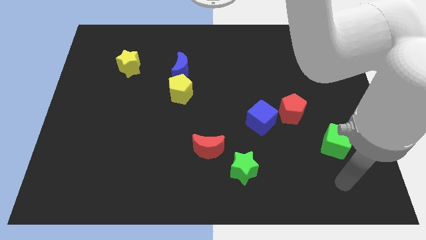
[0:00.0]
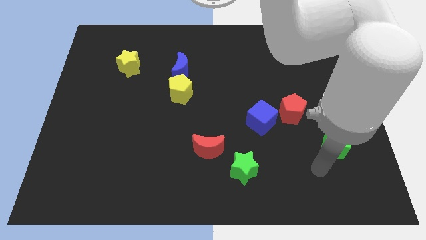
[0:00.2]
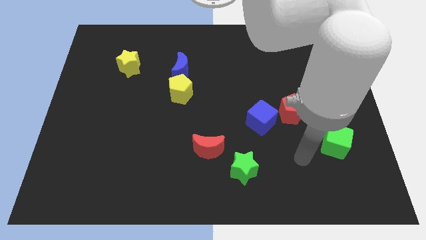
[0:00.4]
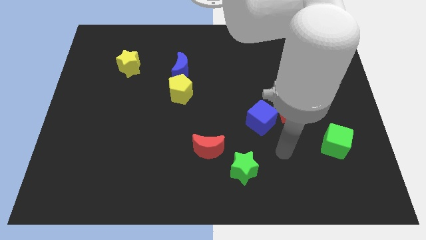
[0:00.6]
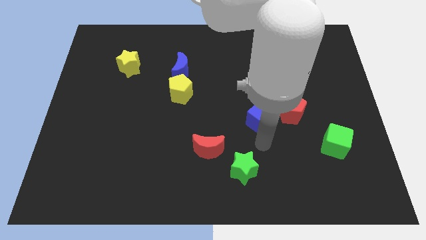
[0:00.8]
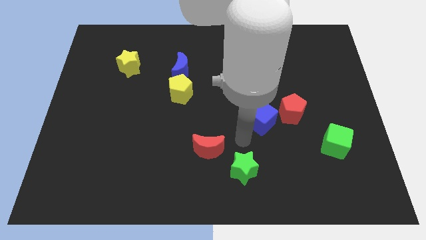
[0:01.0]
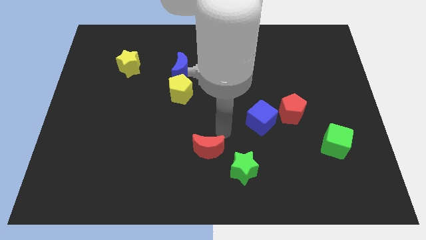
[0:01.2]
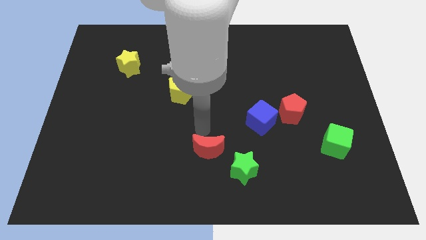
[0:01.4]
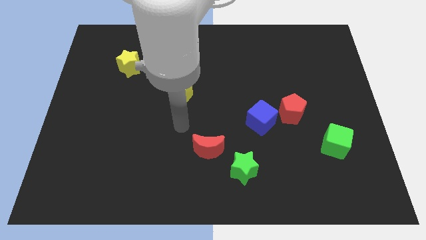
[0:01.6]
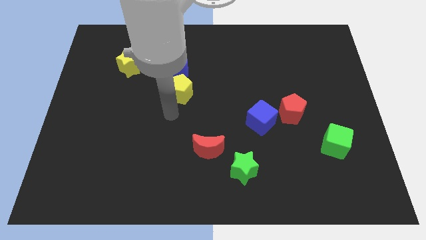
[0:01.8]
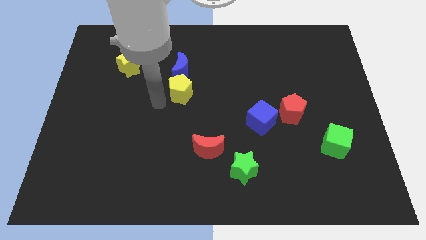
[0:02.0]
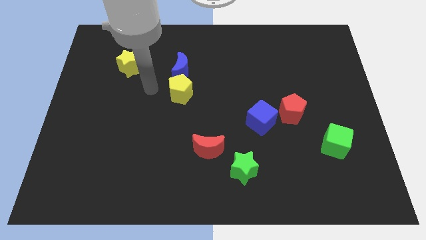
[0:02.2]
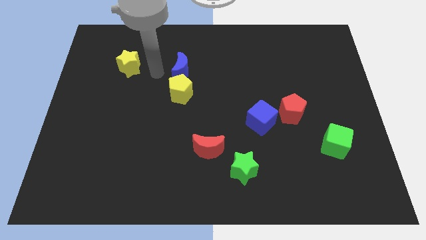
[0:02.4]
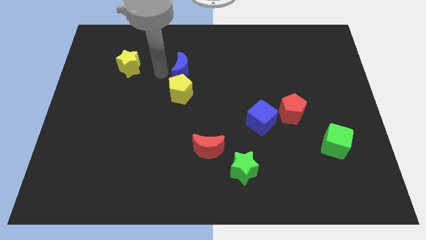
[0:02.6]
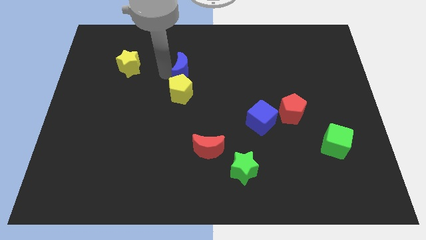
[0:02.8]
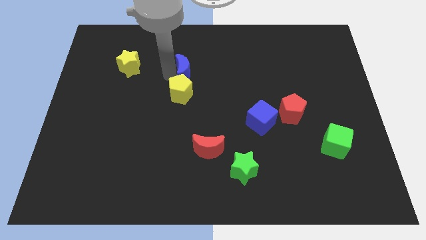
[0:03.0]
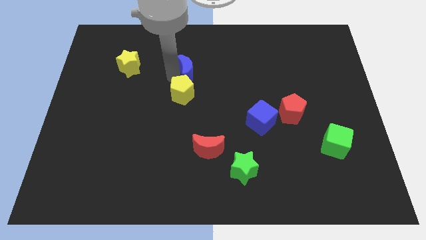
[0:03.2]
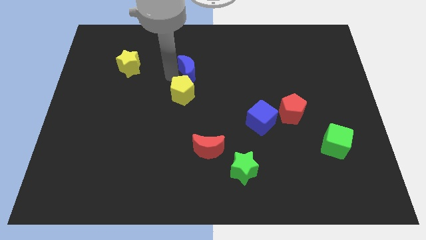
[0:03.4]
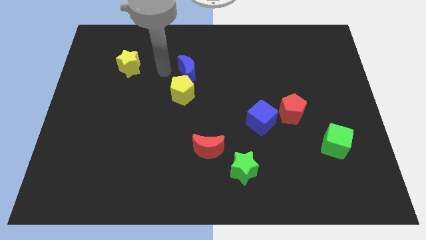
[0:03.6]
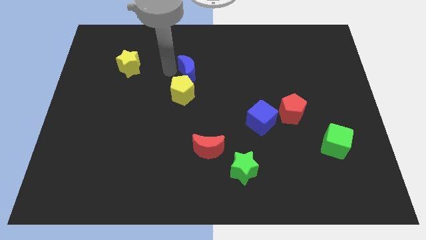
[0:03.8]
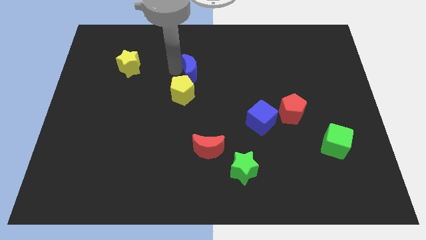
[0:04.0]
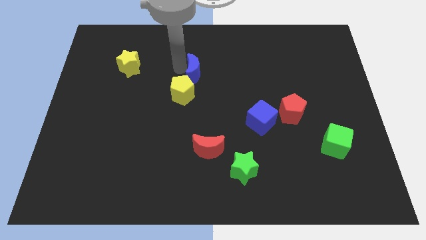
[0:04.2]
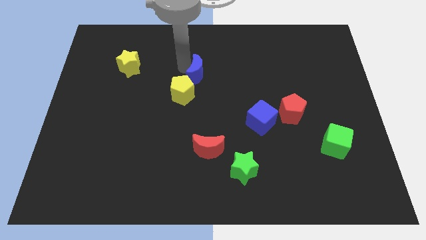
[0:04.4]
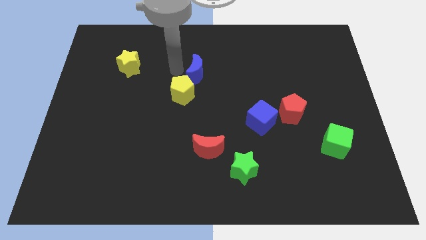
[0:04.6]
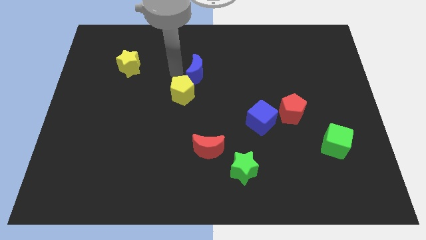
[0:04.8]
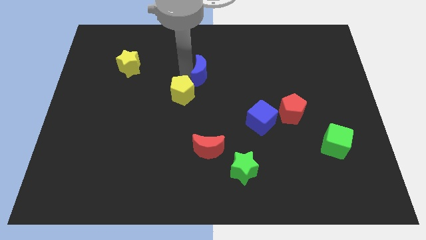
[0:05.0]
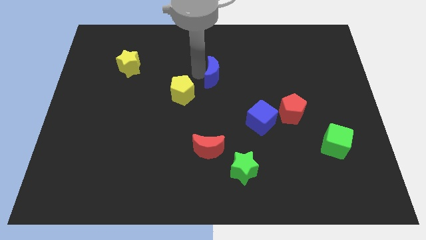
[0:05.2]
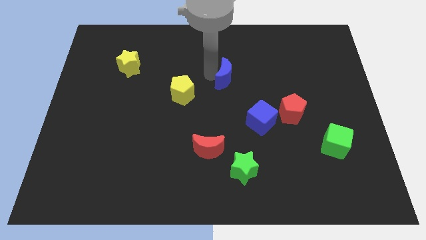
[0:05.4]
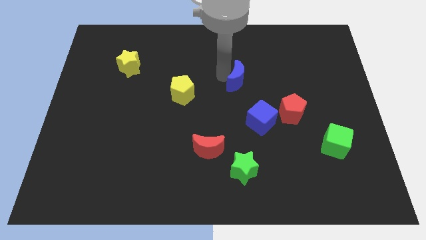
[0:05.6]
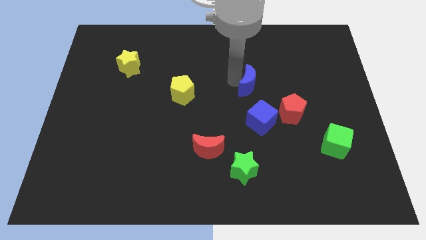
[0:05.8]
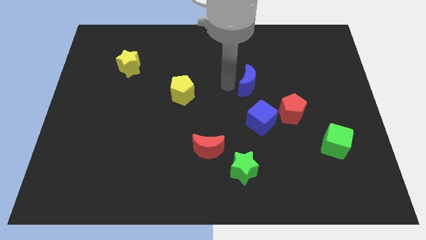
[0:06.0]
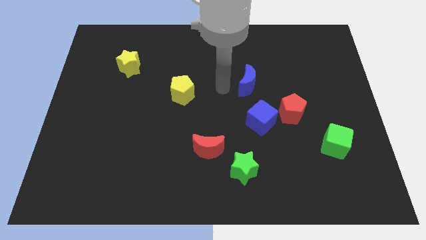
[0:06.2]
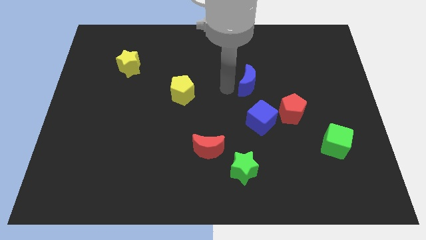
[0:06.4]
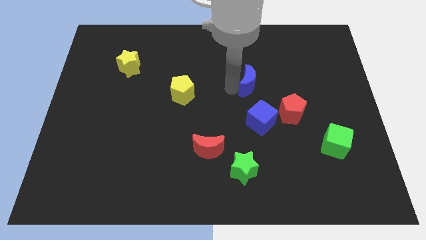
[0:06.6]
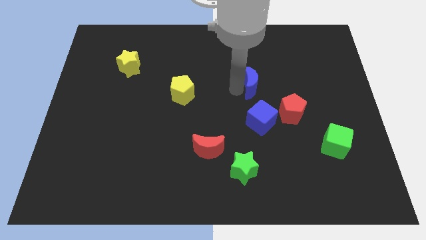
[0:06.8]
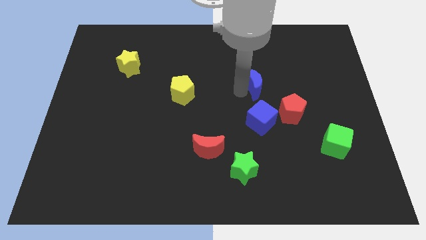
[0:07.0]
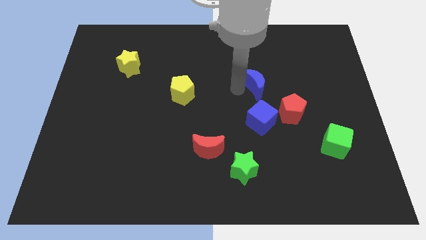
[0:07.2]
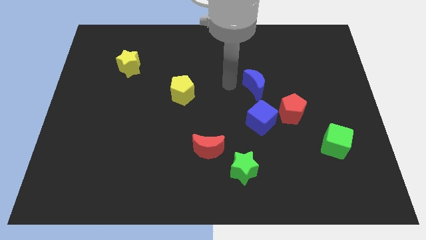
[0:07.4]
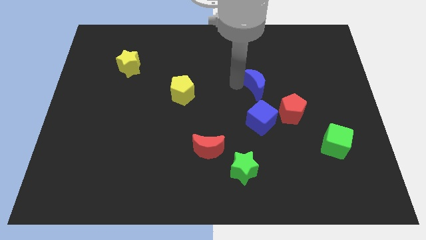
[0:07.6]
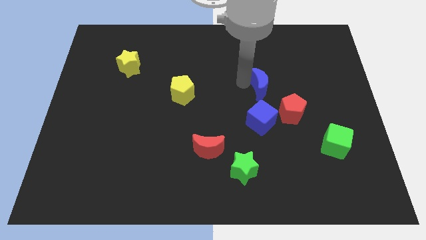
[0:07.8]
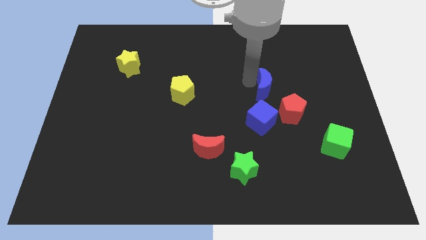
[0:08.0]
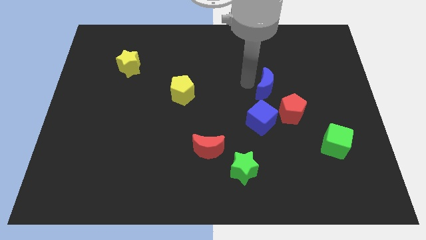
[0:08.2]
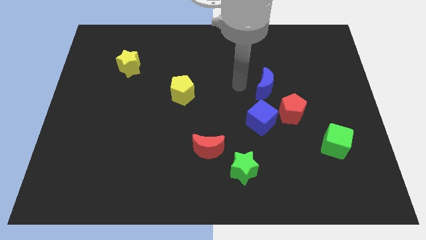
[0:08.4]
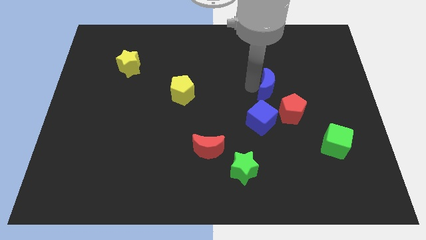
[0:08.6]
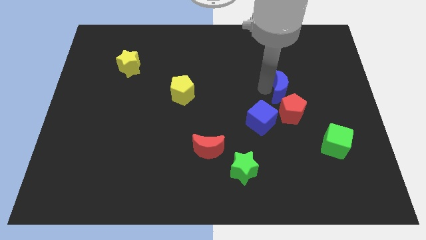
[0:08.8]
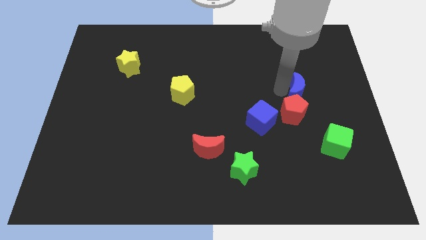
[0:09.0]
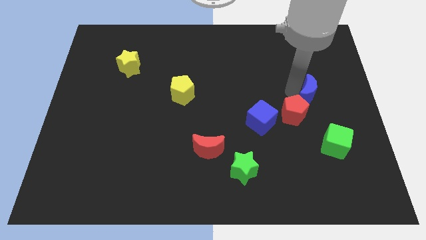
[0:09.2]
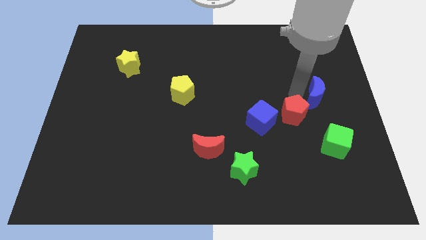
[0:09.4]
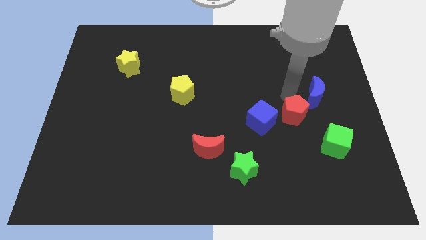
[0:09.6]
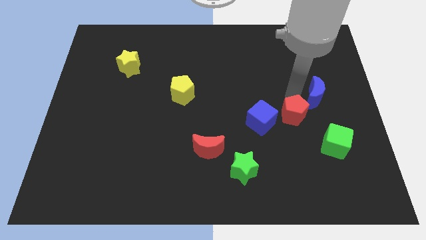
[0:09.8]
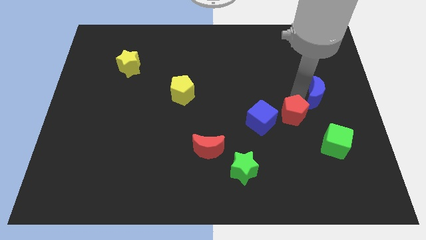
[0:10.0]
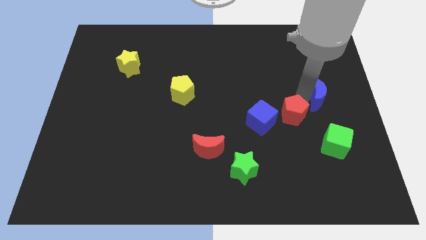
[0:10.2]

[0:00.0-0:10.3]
move the blue moon to the center right

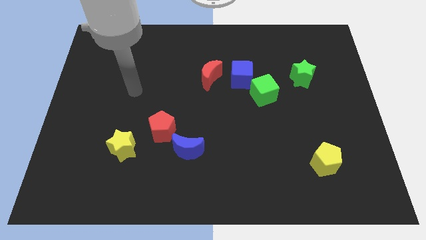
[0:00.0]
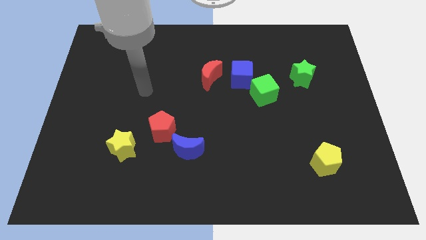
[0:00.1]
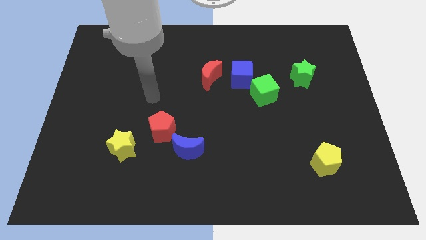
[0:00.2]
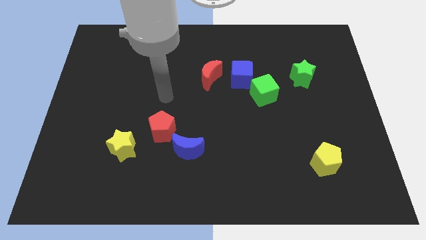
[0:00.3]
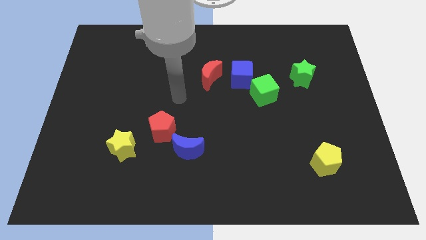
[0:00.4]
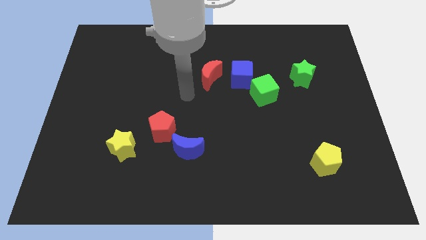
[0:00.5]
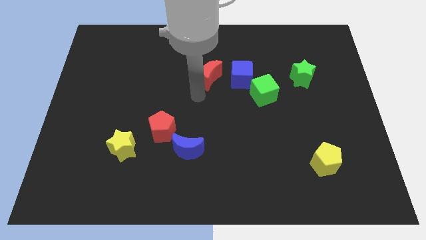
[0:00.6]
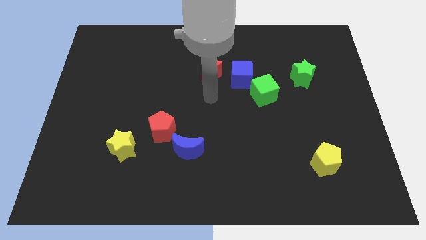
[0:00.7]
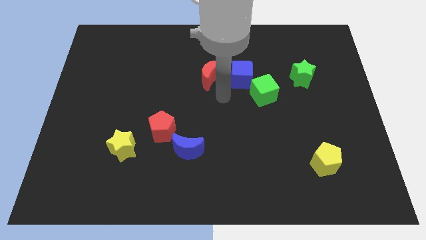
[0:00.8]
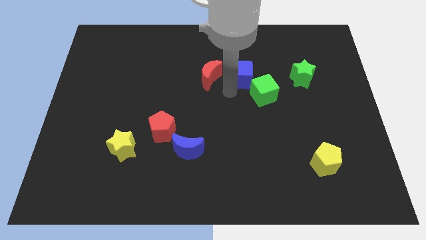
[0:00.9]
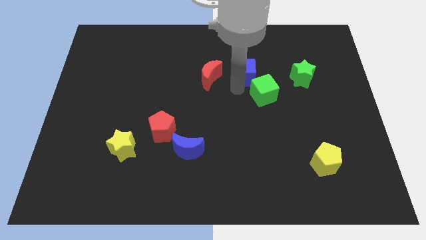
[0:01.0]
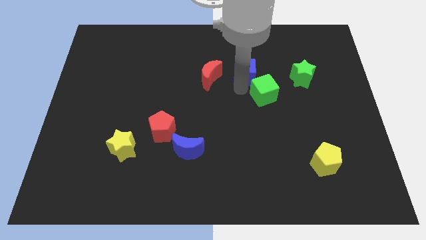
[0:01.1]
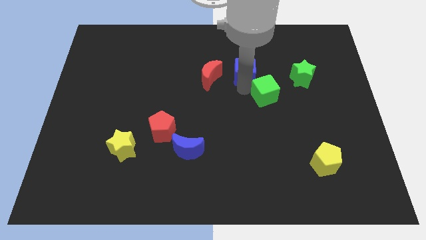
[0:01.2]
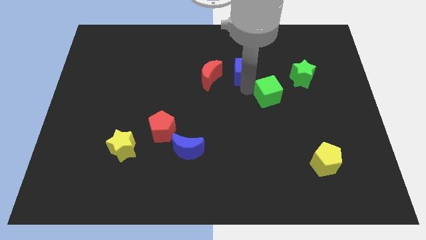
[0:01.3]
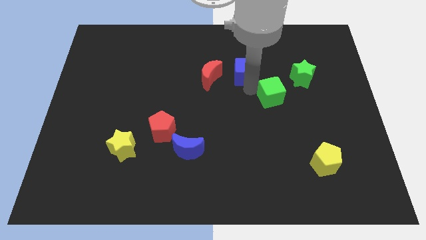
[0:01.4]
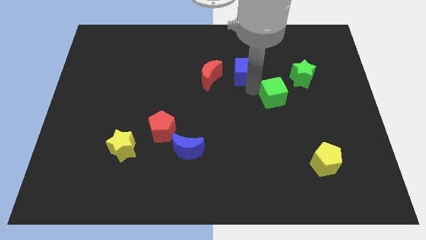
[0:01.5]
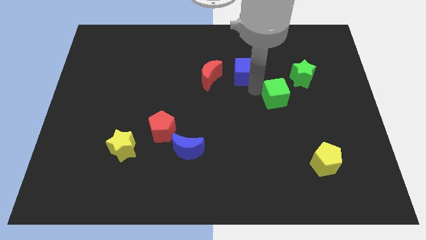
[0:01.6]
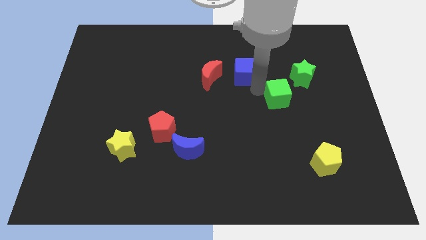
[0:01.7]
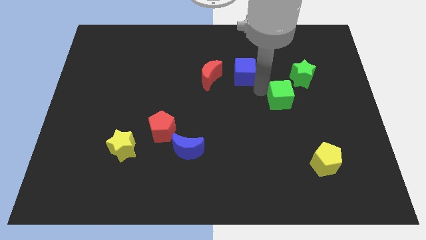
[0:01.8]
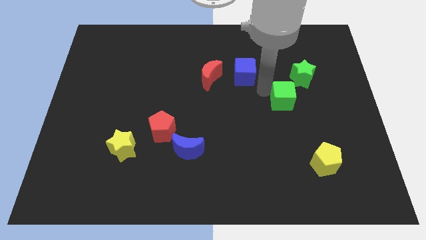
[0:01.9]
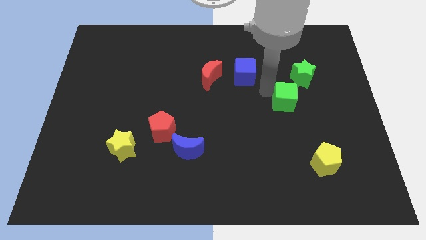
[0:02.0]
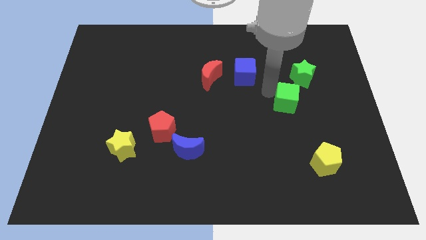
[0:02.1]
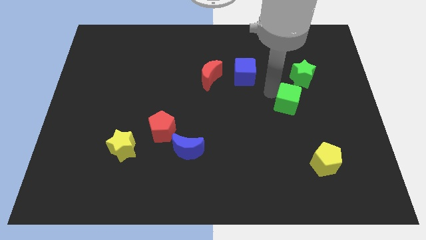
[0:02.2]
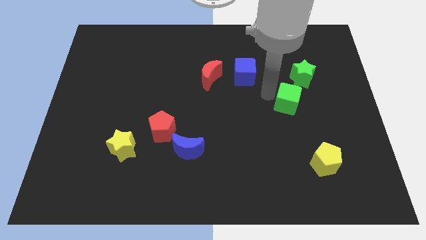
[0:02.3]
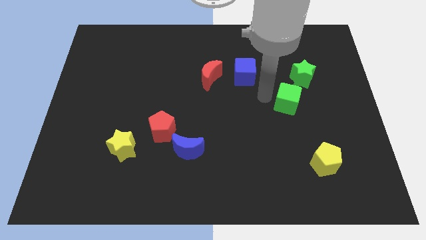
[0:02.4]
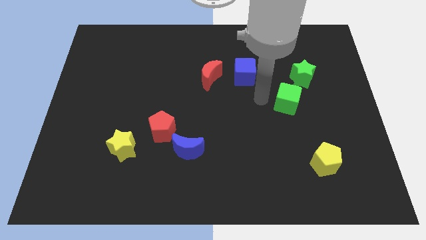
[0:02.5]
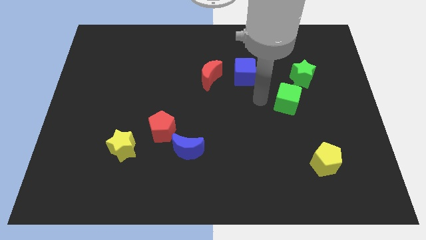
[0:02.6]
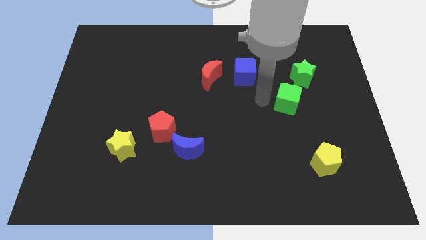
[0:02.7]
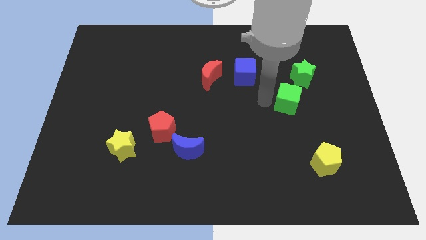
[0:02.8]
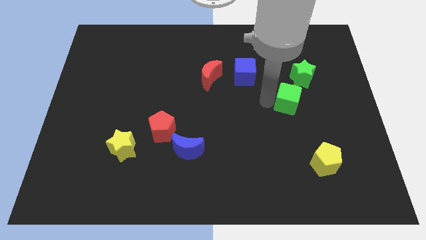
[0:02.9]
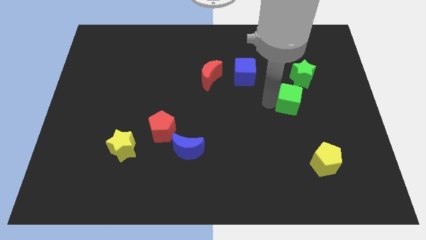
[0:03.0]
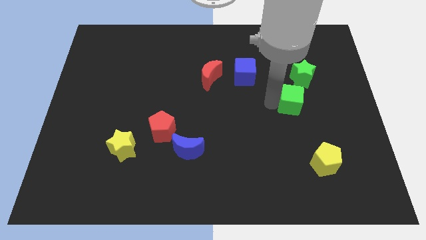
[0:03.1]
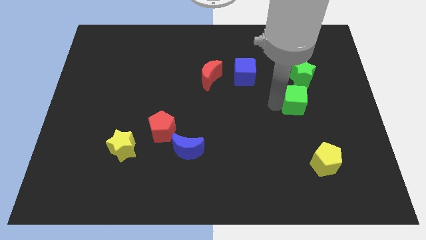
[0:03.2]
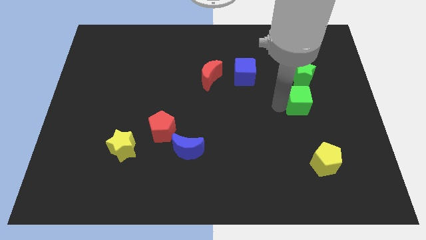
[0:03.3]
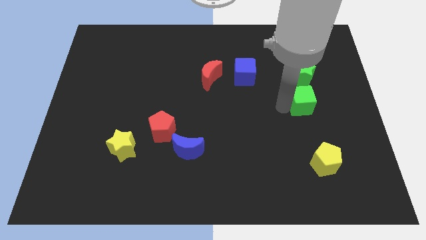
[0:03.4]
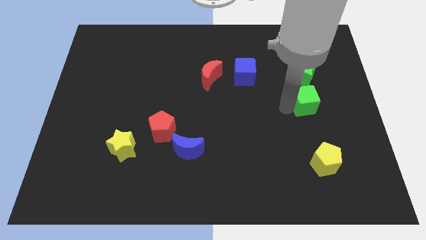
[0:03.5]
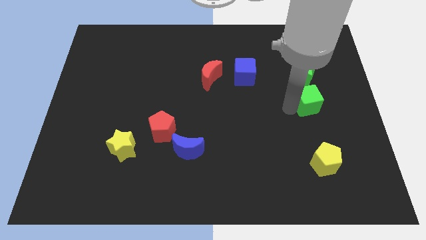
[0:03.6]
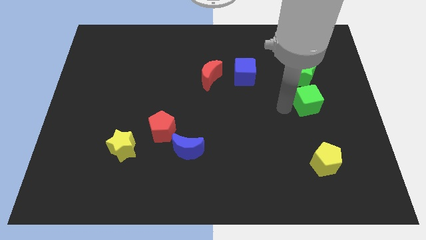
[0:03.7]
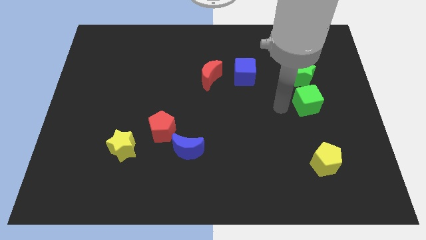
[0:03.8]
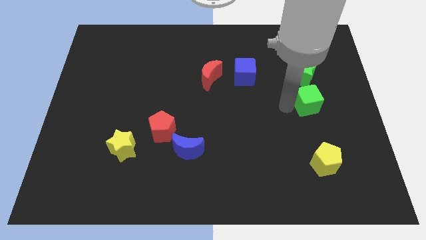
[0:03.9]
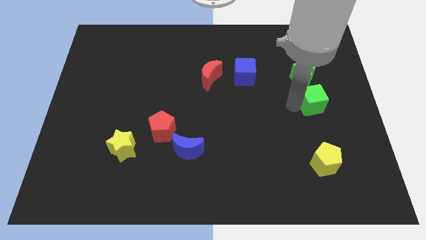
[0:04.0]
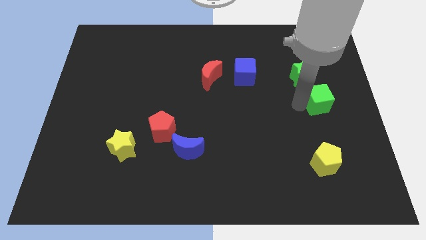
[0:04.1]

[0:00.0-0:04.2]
move the green cube to the center right
